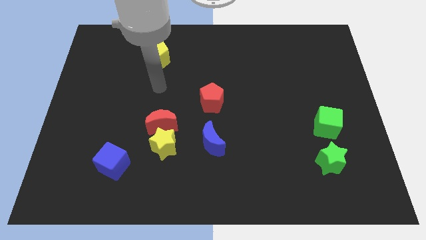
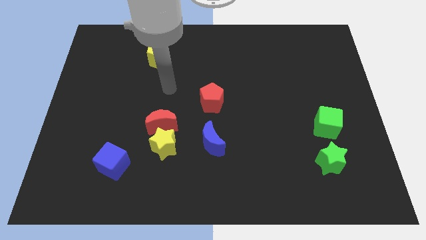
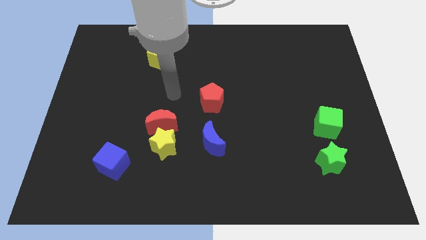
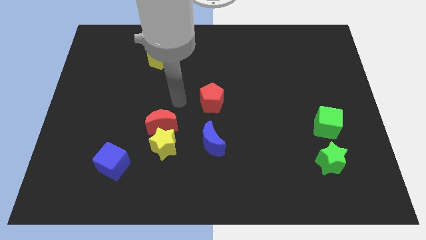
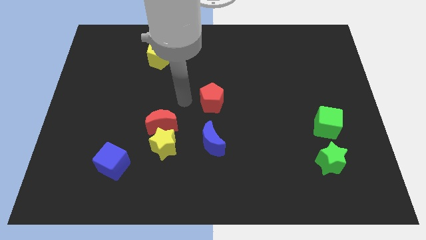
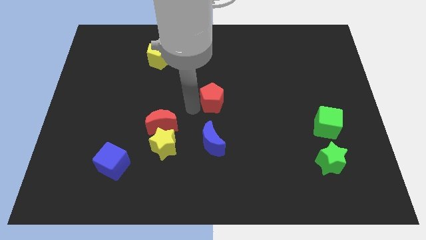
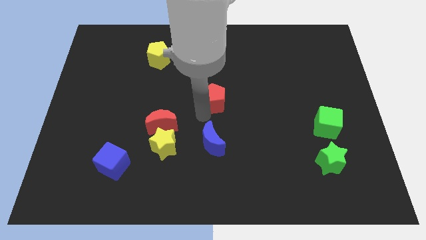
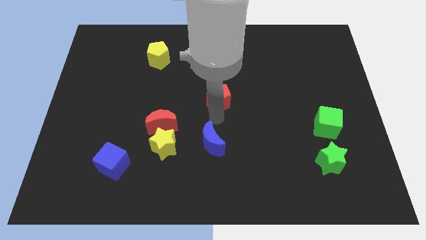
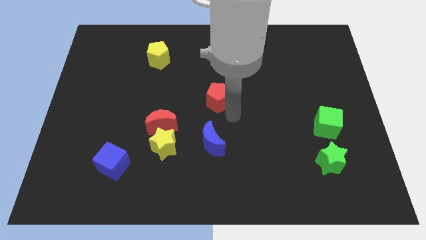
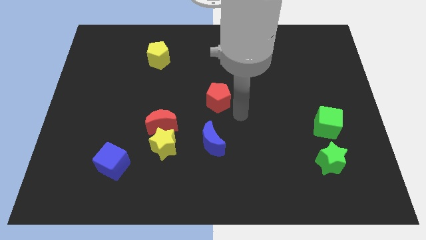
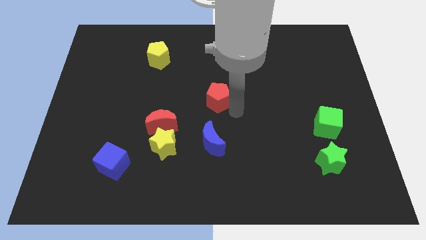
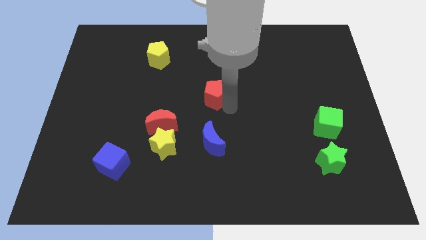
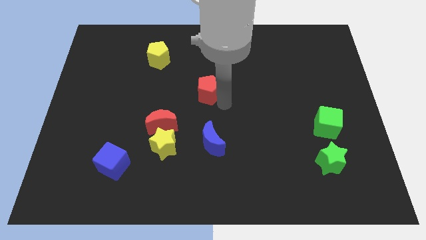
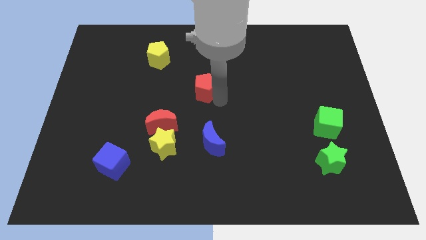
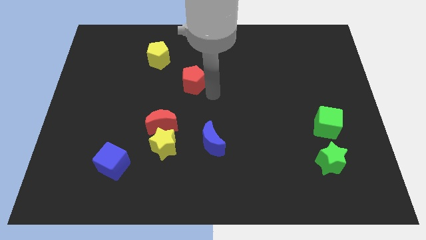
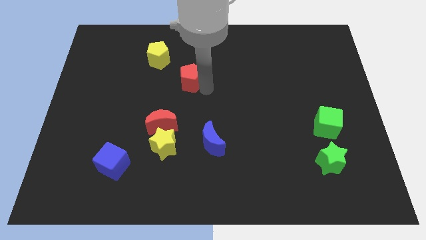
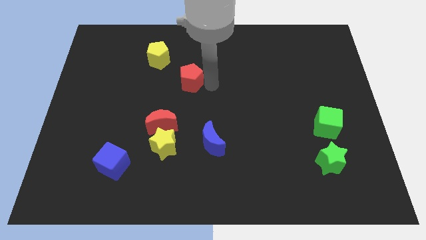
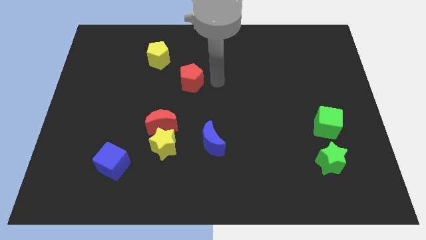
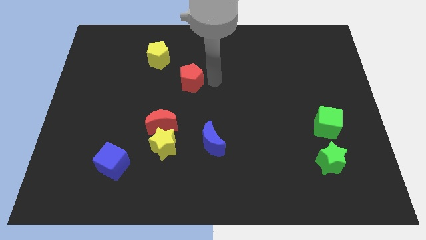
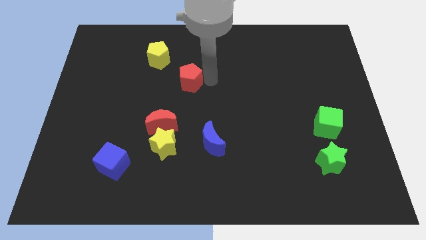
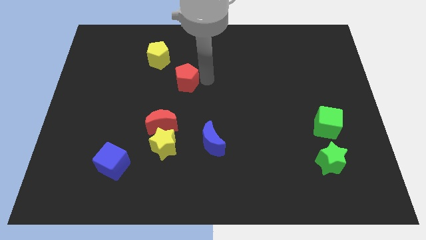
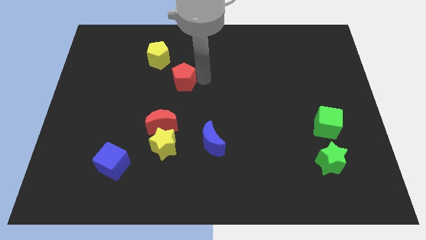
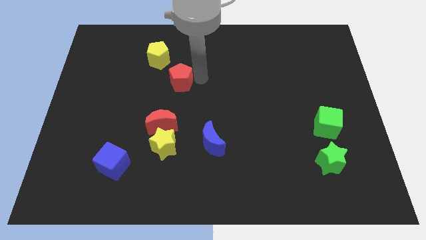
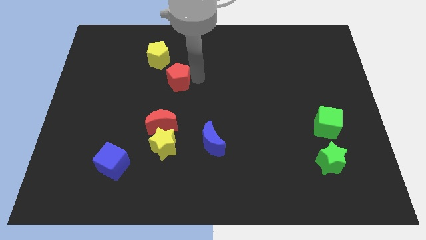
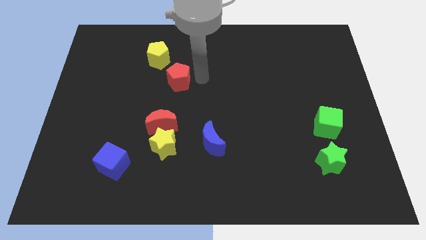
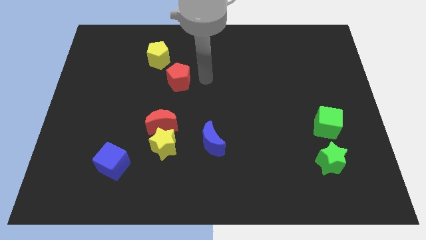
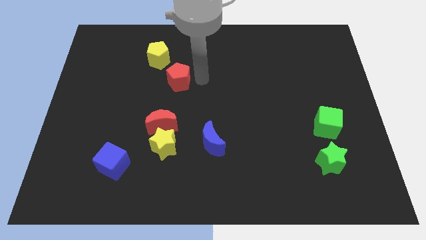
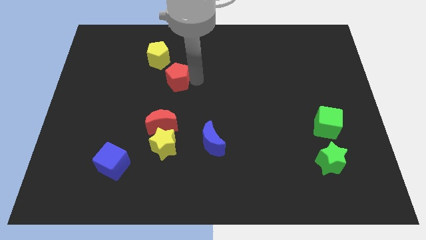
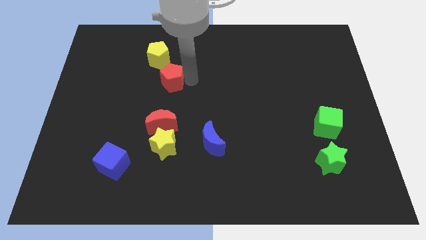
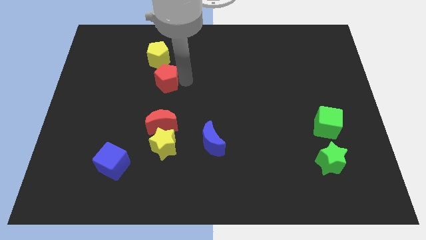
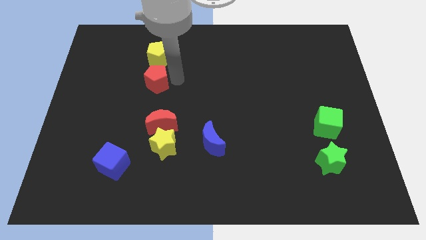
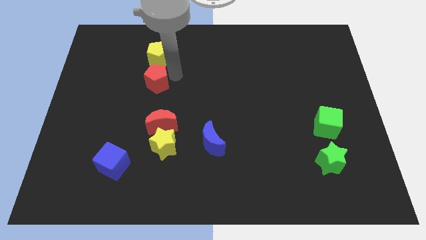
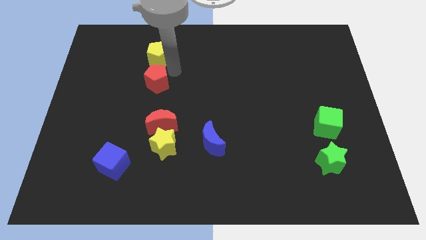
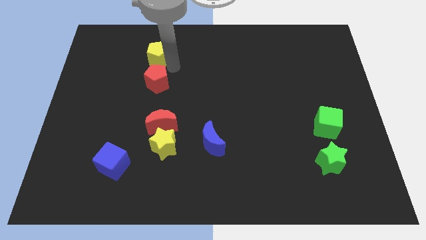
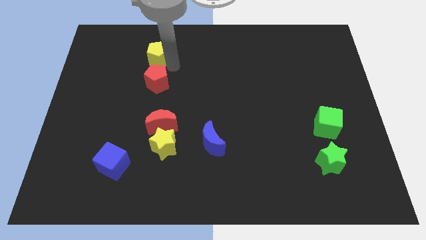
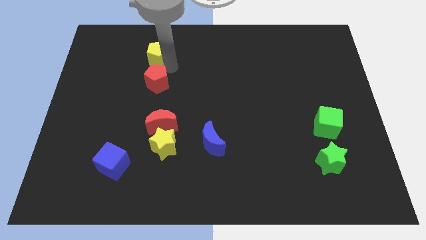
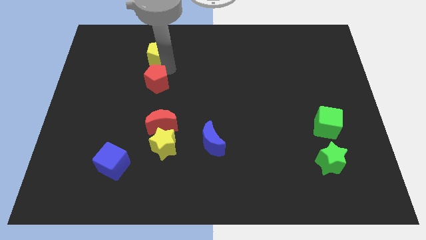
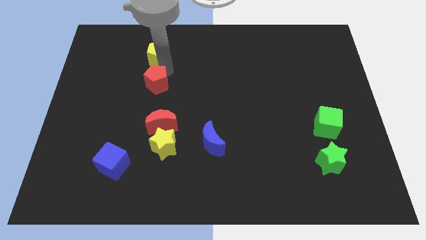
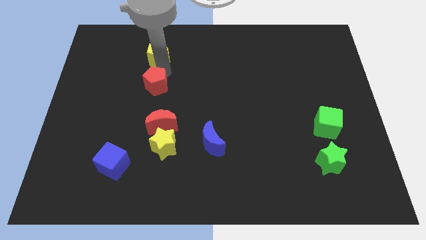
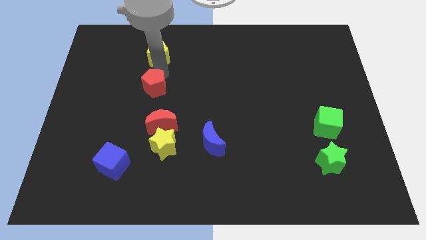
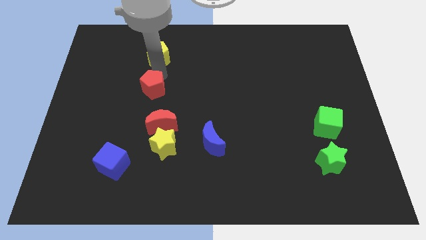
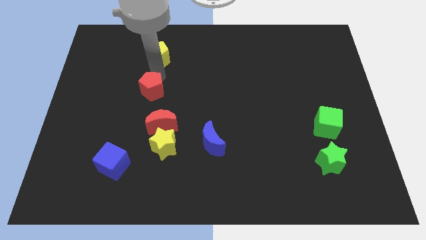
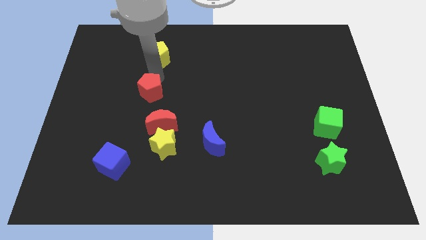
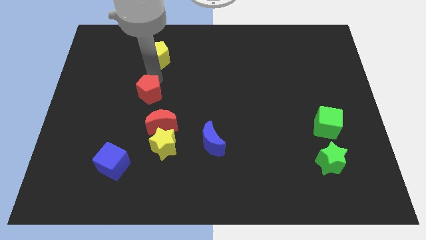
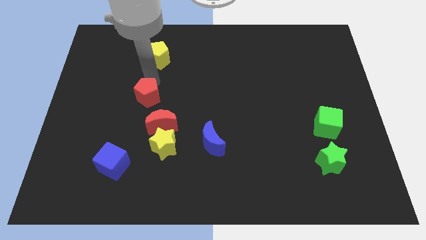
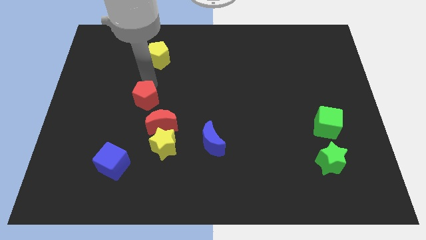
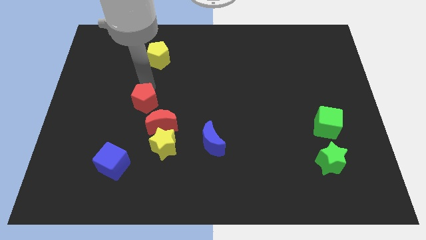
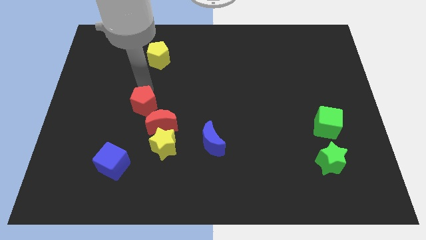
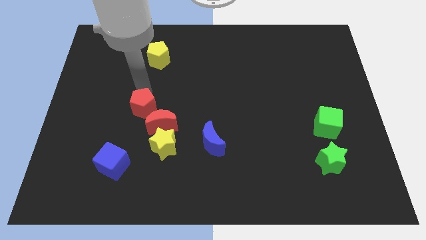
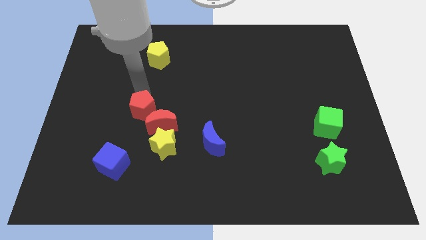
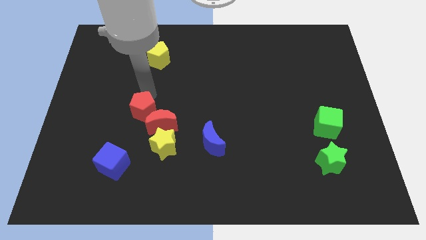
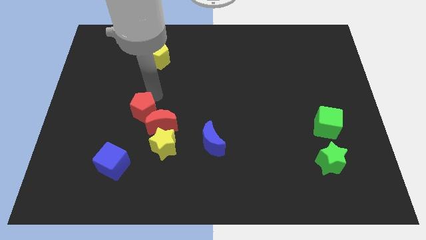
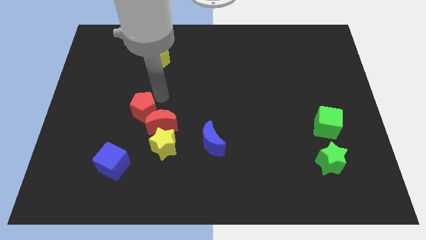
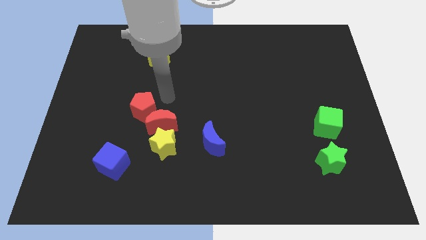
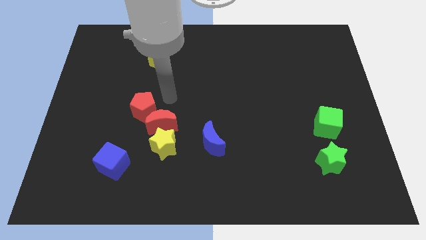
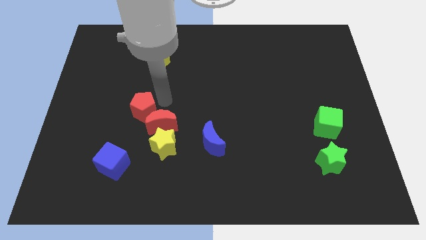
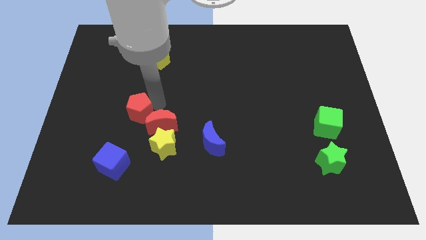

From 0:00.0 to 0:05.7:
slide the red pentagon to the top side of the blue cube

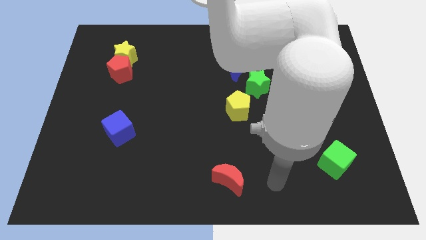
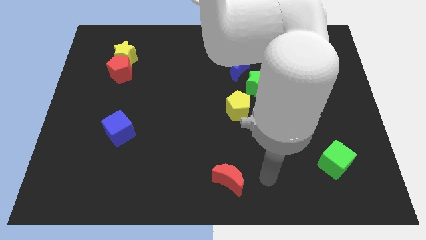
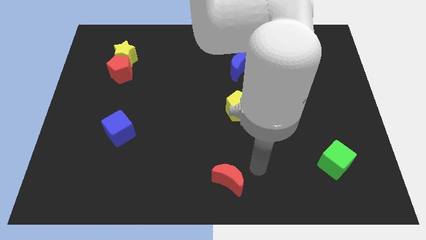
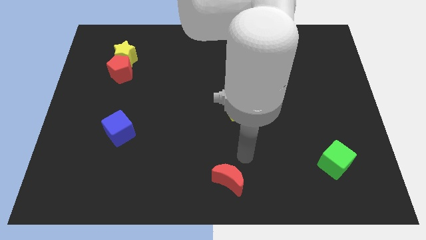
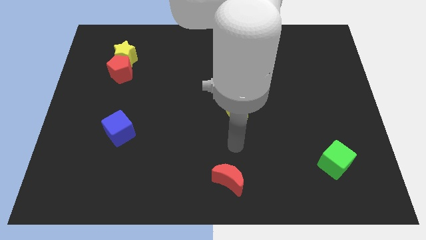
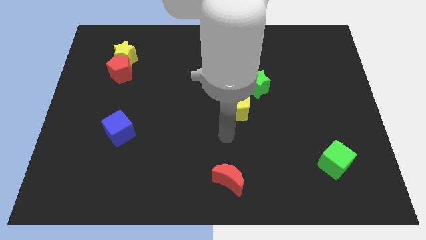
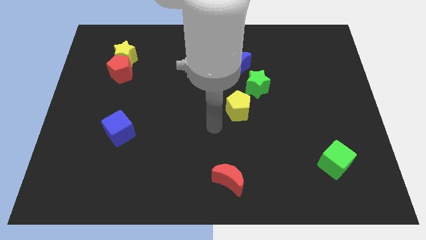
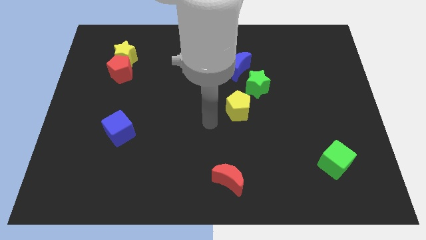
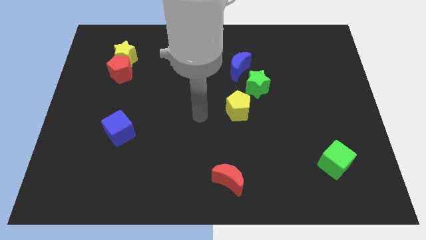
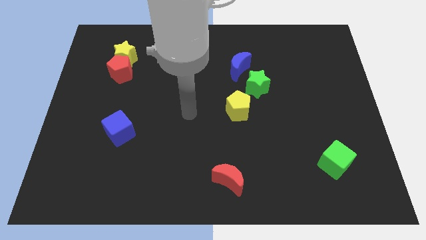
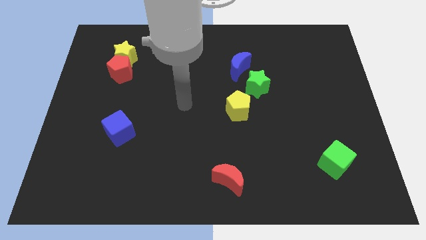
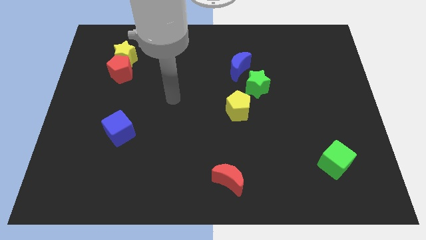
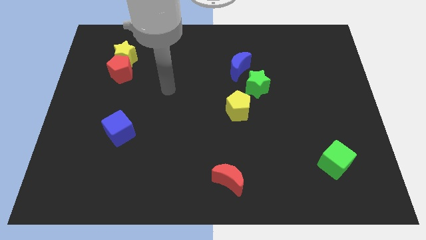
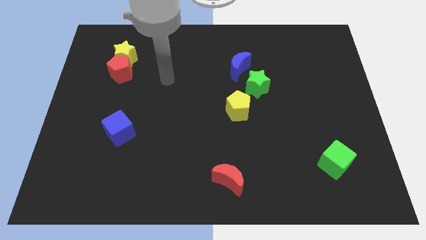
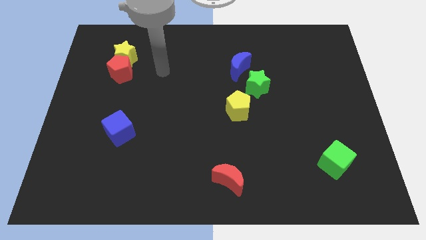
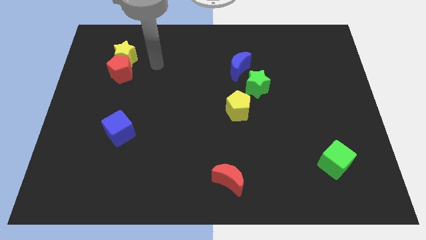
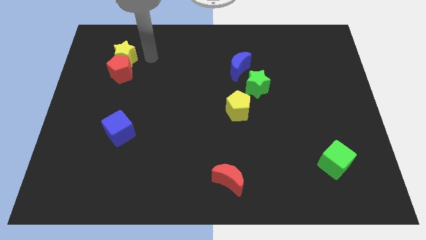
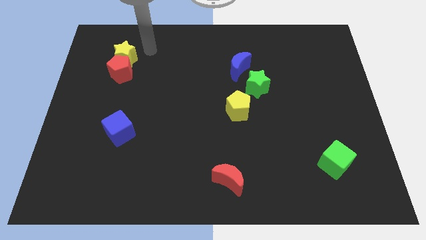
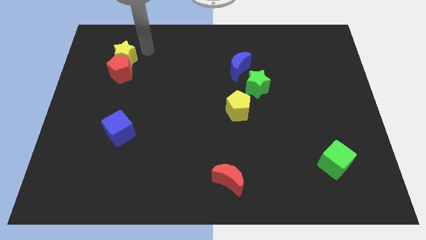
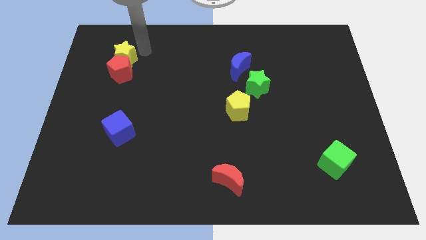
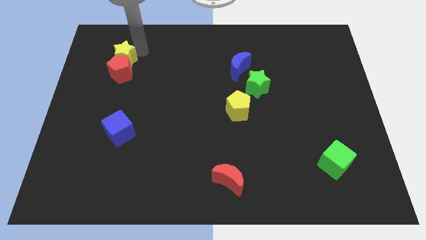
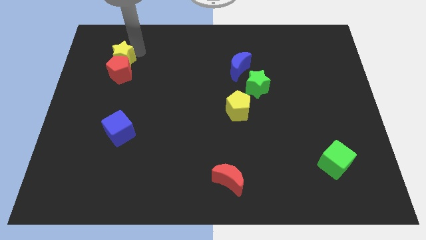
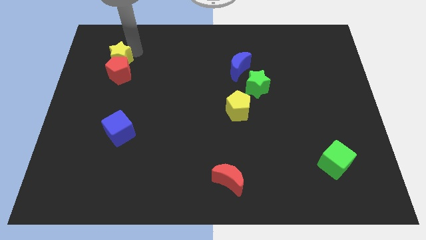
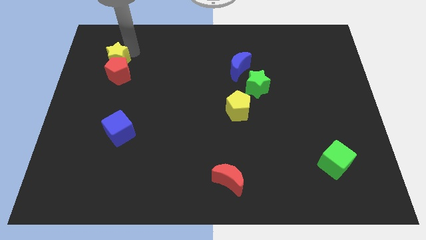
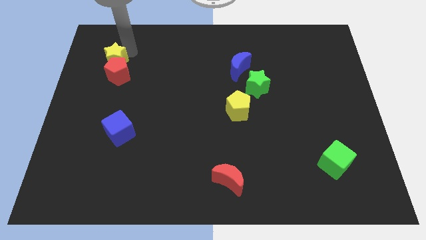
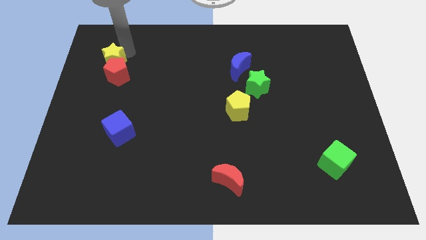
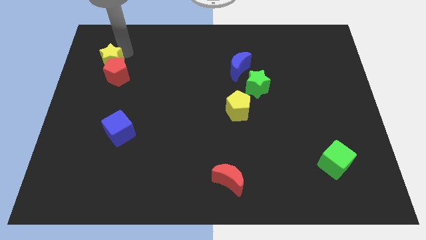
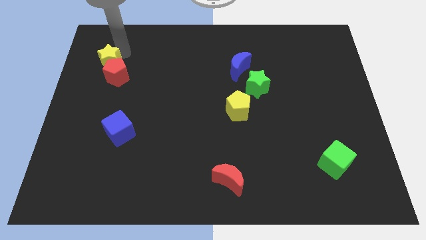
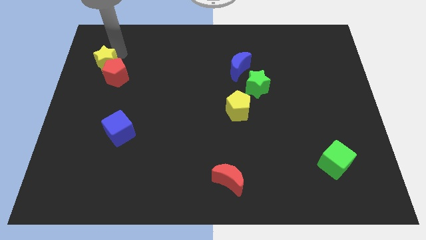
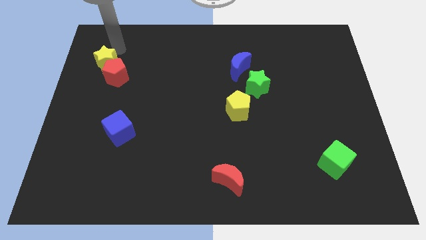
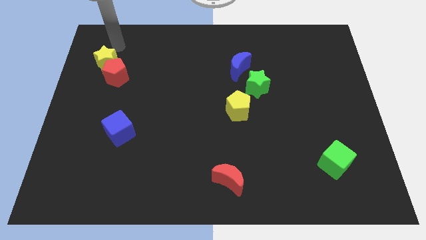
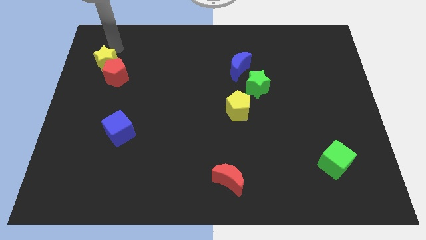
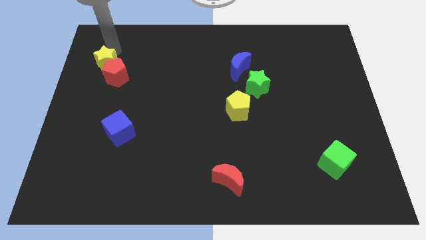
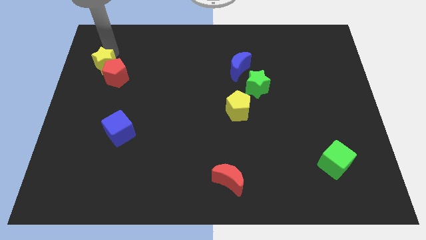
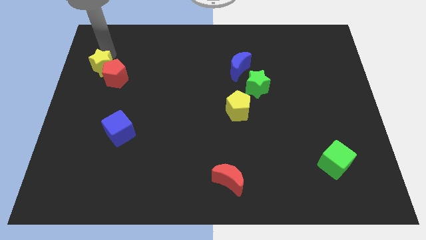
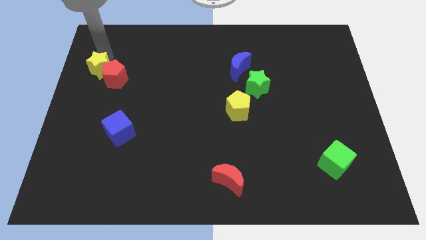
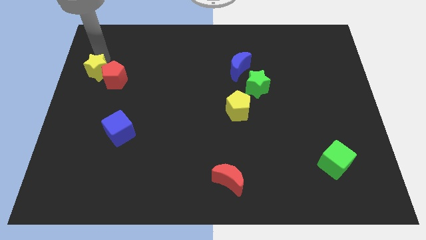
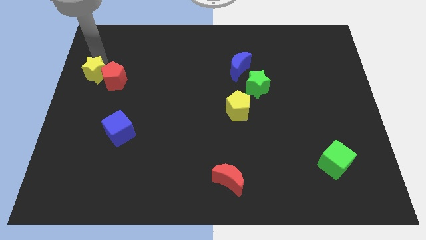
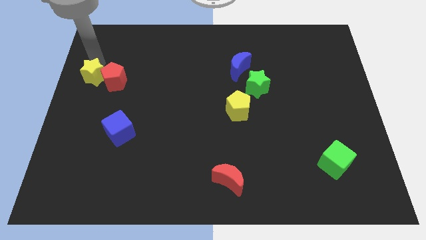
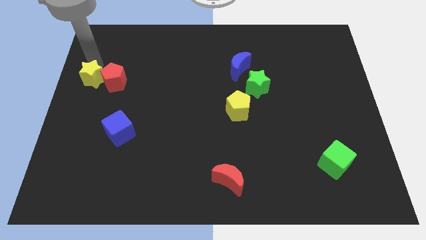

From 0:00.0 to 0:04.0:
put the yellow star diagonally down and to the left of the red pentagon
